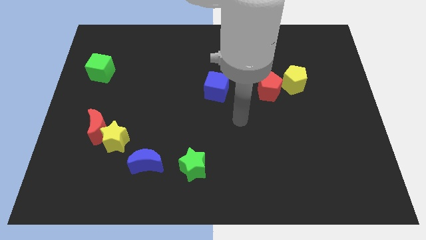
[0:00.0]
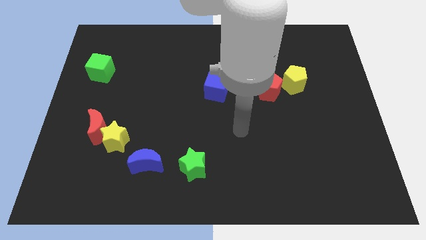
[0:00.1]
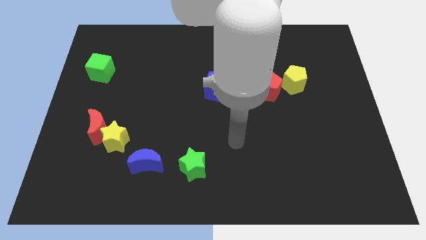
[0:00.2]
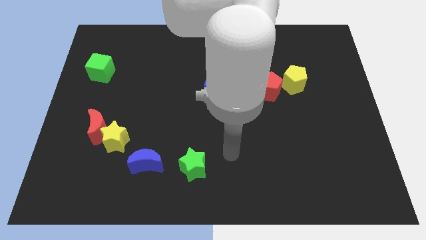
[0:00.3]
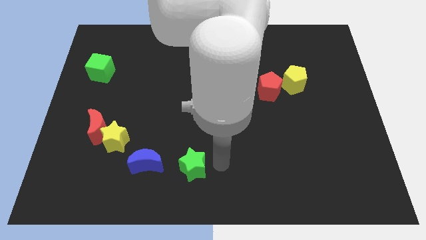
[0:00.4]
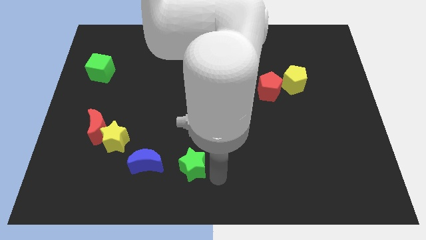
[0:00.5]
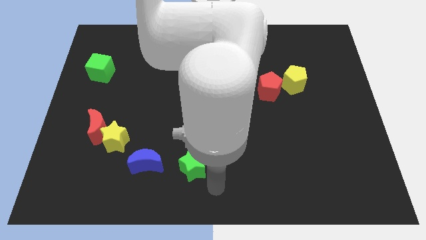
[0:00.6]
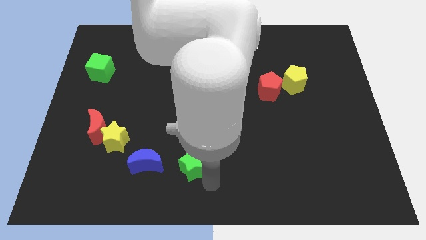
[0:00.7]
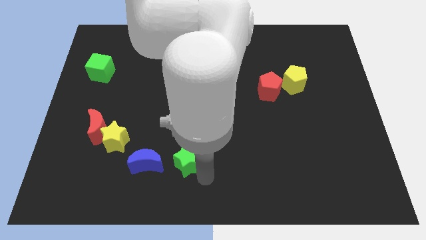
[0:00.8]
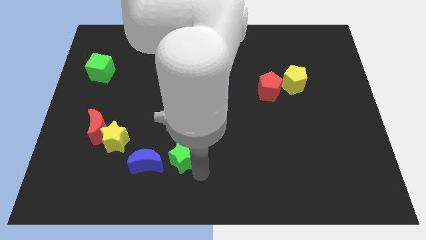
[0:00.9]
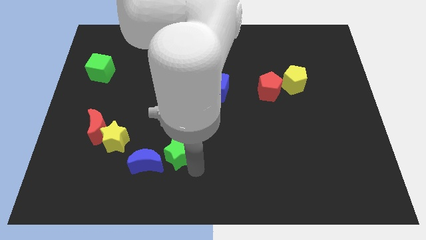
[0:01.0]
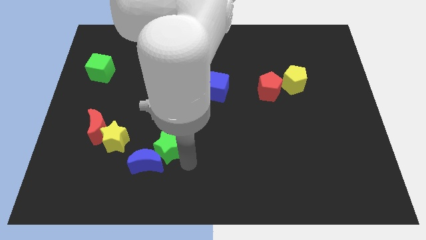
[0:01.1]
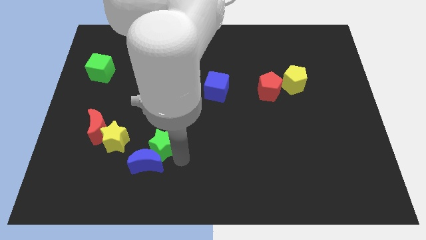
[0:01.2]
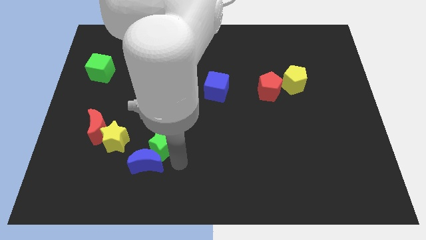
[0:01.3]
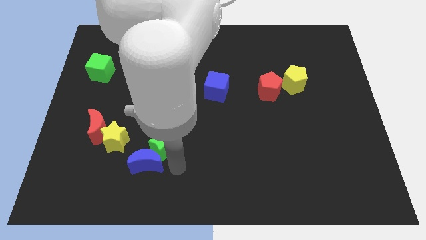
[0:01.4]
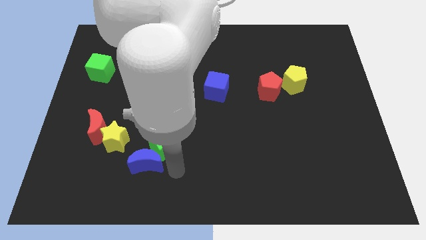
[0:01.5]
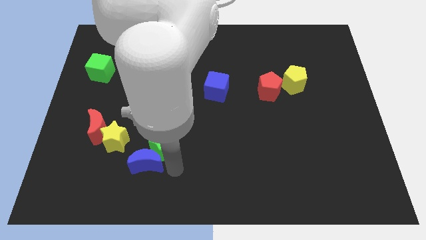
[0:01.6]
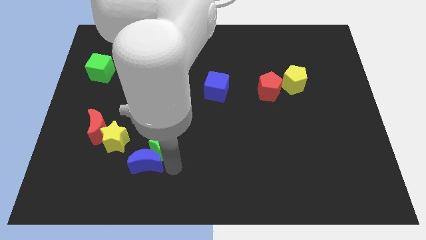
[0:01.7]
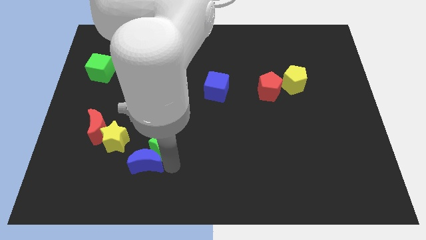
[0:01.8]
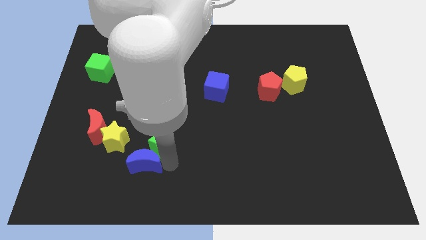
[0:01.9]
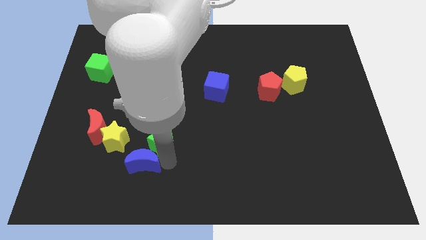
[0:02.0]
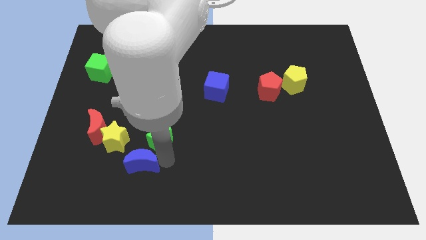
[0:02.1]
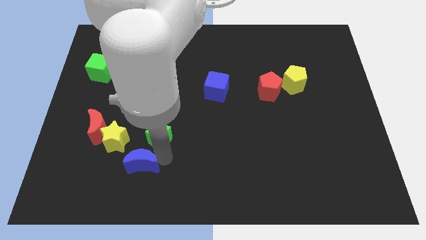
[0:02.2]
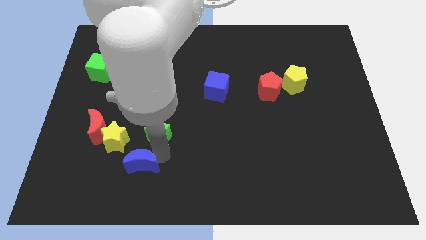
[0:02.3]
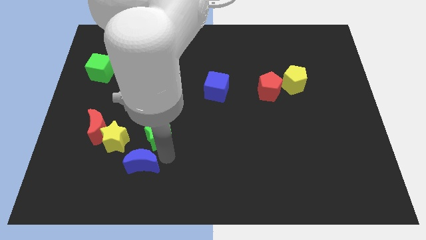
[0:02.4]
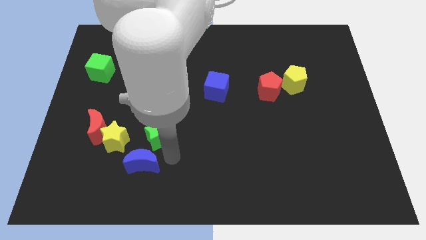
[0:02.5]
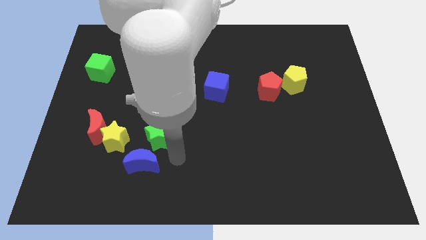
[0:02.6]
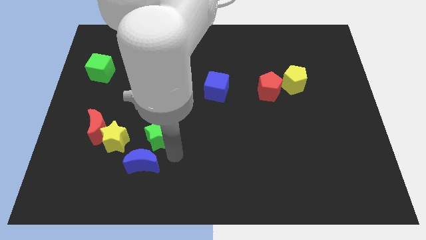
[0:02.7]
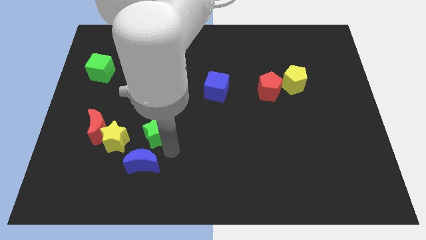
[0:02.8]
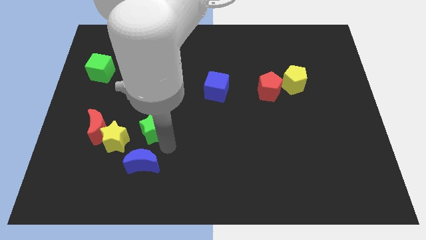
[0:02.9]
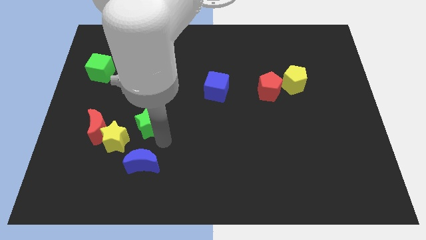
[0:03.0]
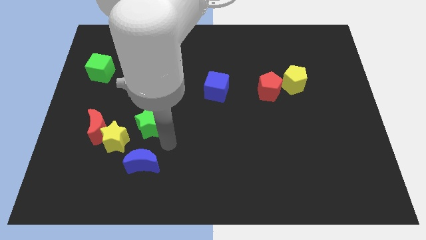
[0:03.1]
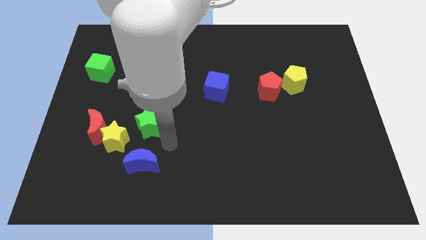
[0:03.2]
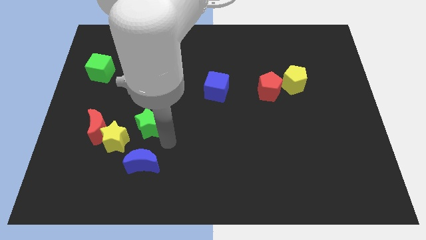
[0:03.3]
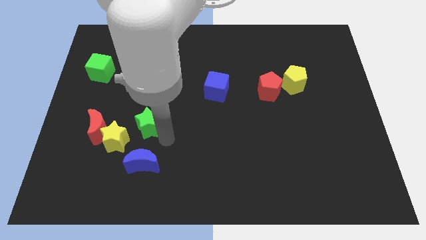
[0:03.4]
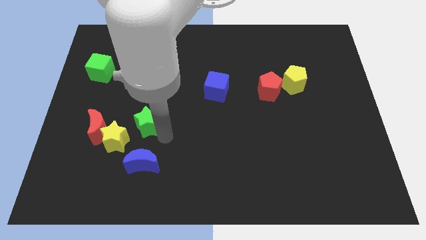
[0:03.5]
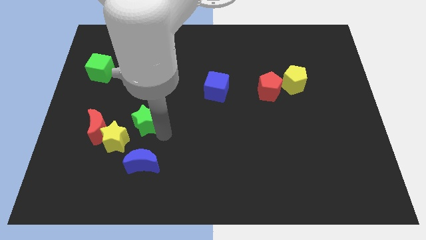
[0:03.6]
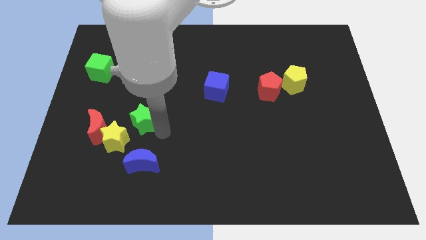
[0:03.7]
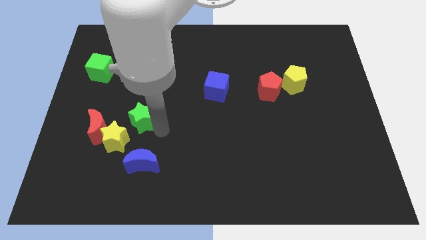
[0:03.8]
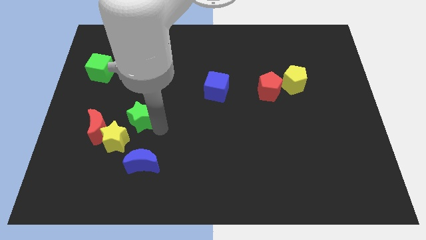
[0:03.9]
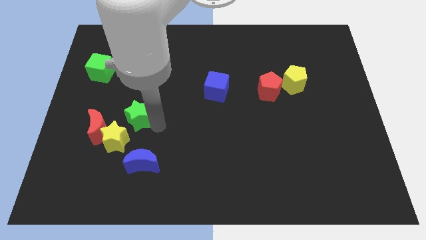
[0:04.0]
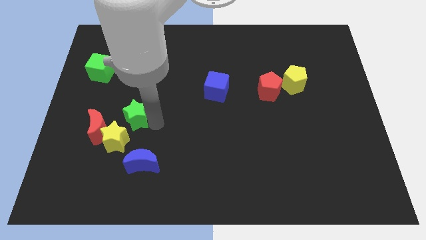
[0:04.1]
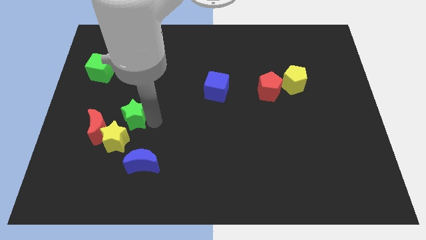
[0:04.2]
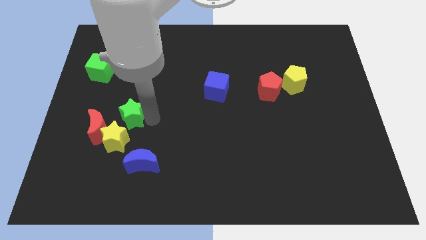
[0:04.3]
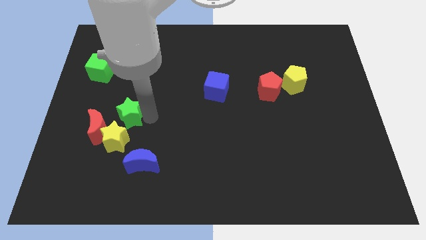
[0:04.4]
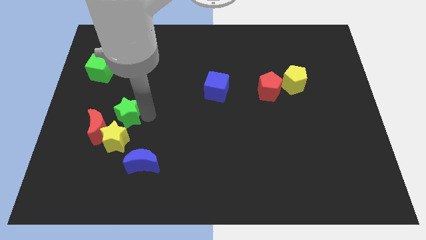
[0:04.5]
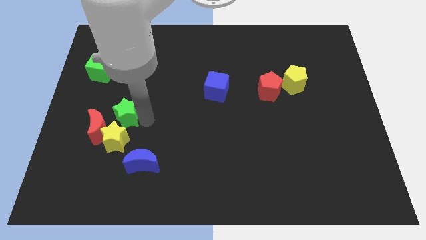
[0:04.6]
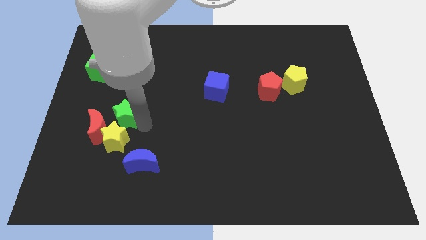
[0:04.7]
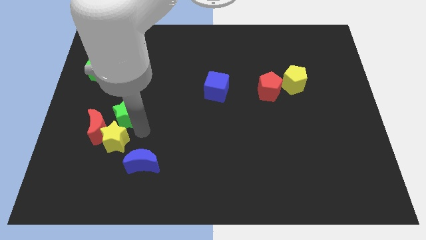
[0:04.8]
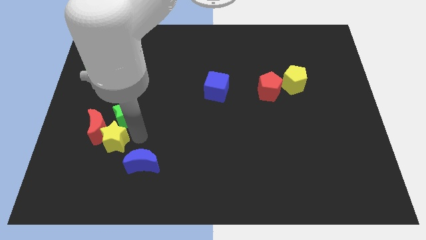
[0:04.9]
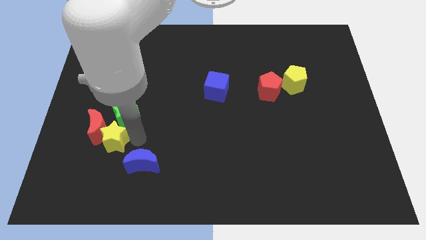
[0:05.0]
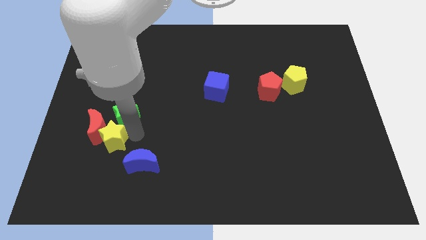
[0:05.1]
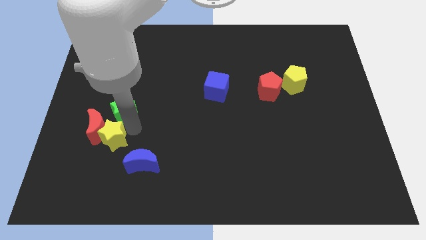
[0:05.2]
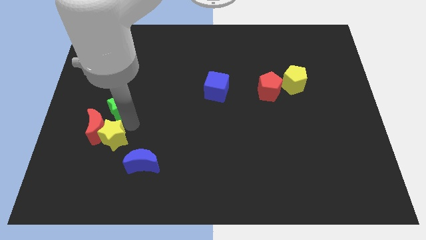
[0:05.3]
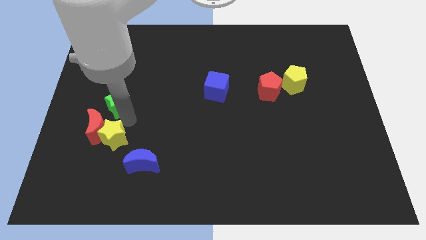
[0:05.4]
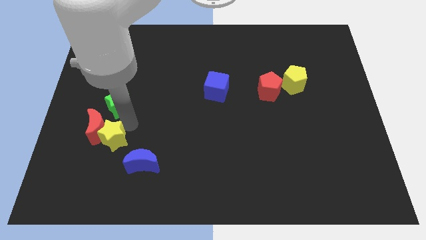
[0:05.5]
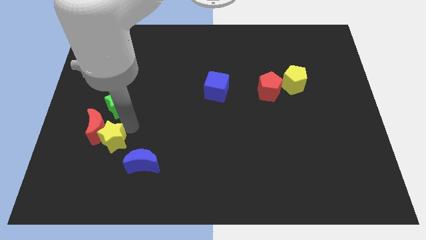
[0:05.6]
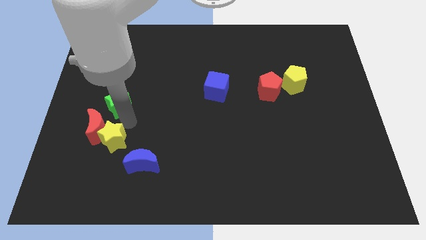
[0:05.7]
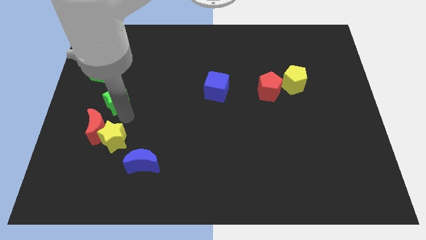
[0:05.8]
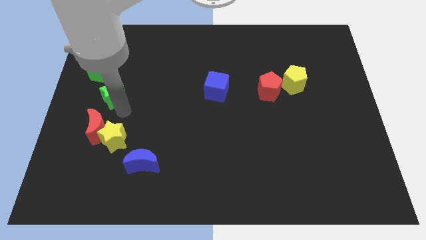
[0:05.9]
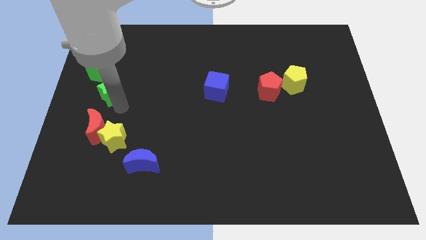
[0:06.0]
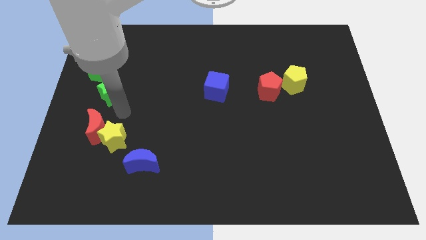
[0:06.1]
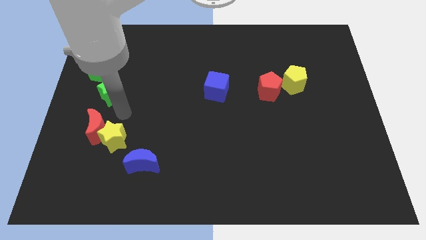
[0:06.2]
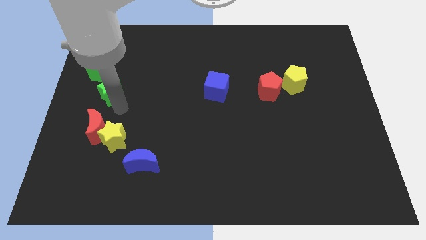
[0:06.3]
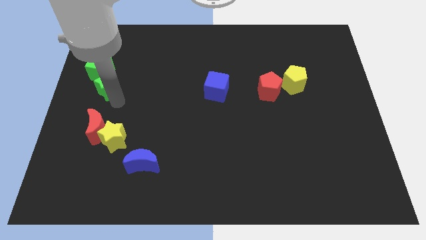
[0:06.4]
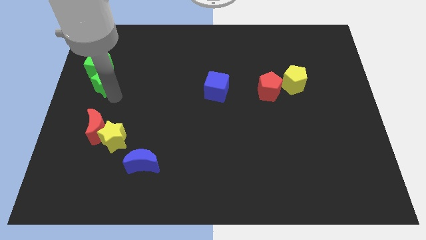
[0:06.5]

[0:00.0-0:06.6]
move the green star next to the green cube

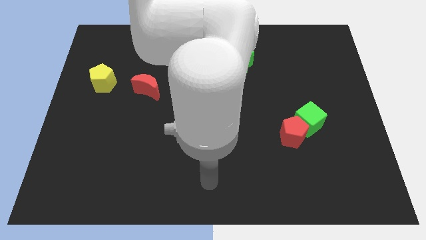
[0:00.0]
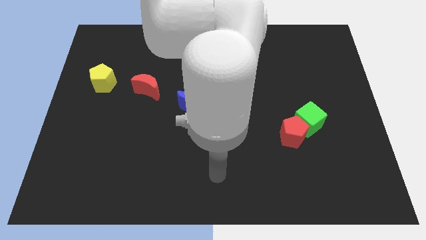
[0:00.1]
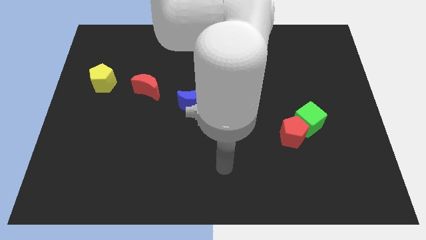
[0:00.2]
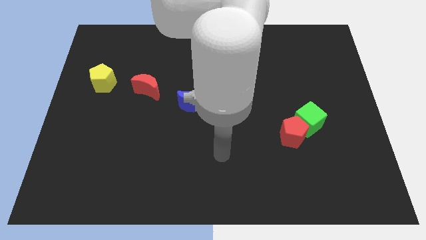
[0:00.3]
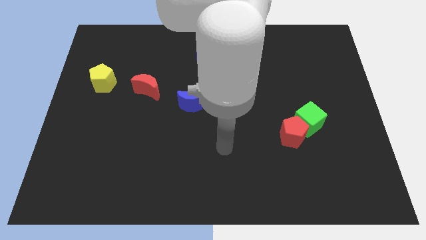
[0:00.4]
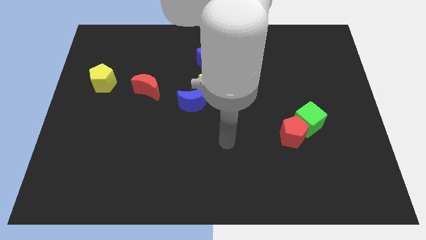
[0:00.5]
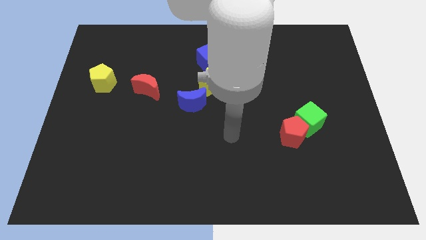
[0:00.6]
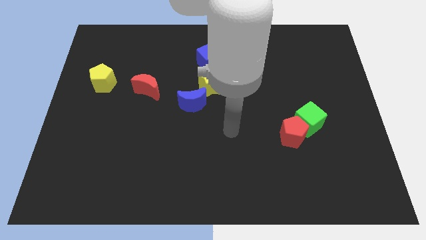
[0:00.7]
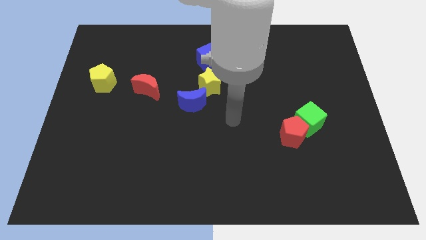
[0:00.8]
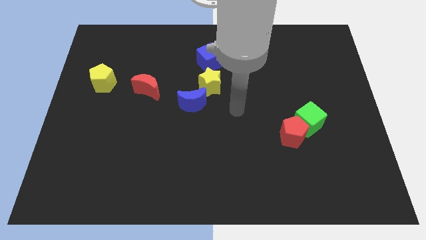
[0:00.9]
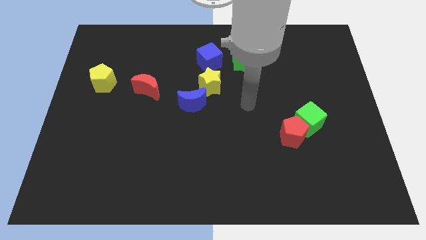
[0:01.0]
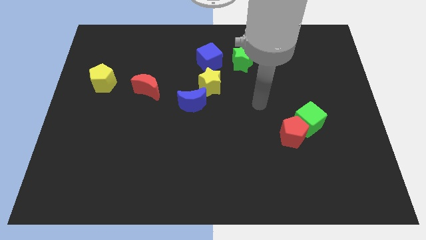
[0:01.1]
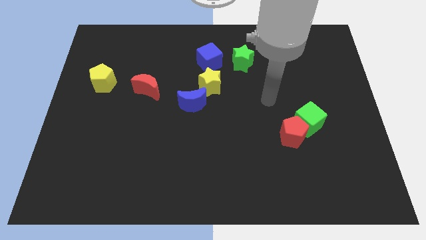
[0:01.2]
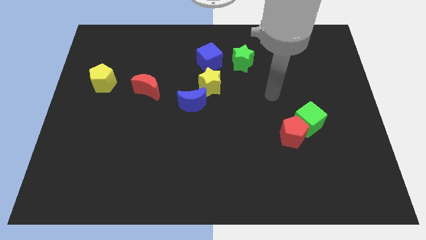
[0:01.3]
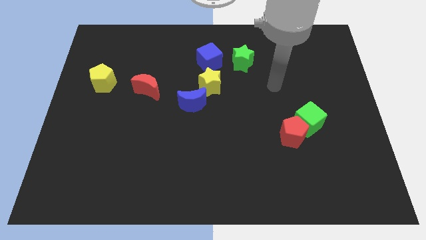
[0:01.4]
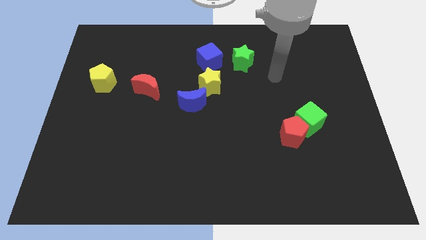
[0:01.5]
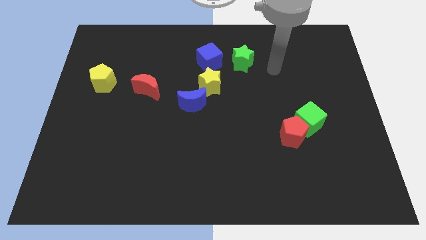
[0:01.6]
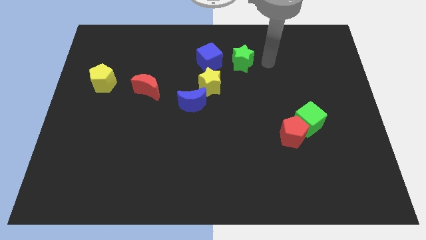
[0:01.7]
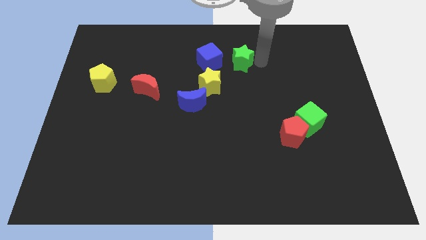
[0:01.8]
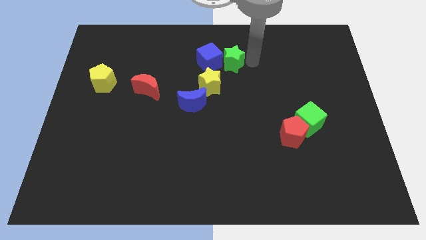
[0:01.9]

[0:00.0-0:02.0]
put the green star next to the blue cube
